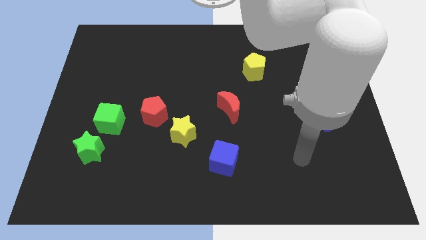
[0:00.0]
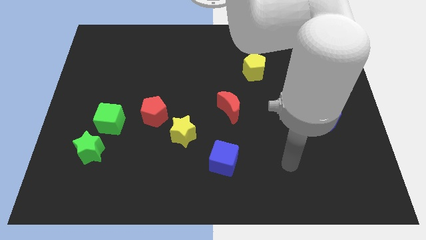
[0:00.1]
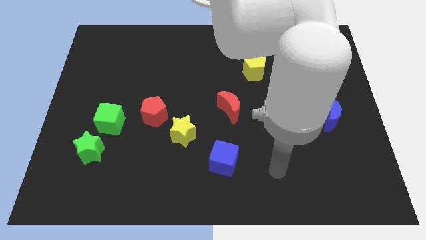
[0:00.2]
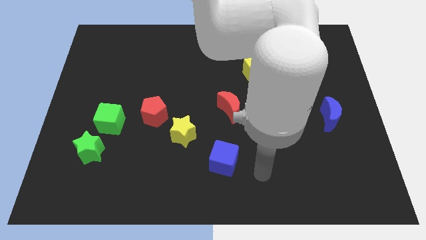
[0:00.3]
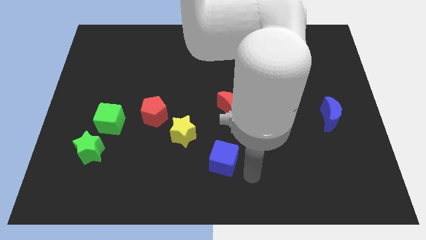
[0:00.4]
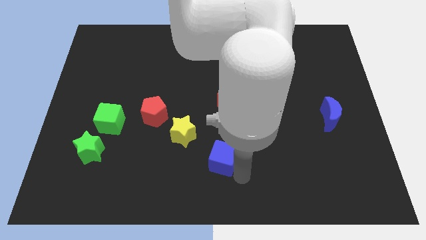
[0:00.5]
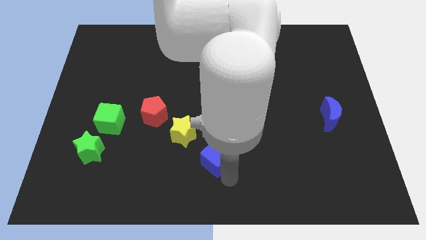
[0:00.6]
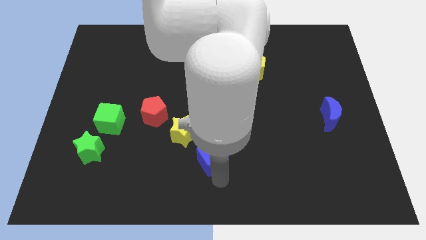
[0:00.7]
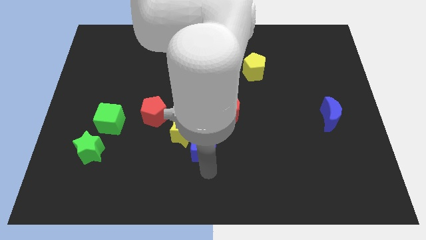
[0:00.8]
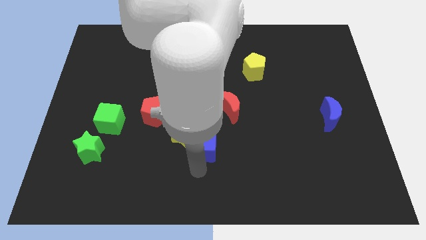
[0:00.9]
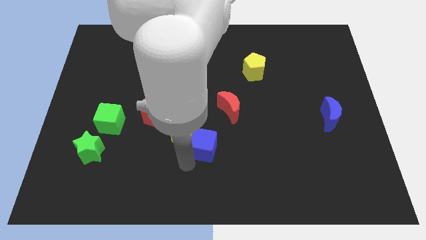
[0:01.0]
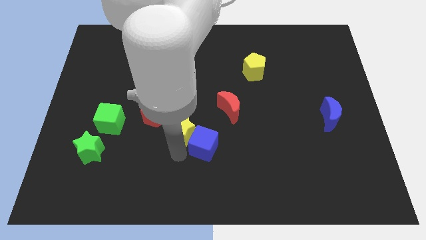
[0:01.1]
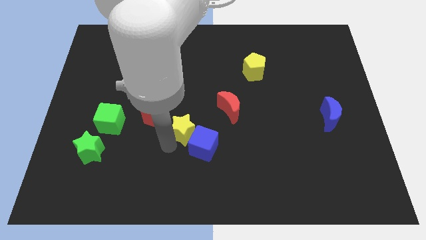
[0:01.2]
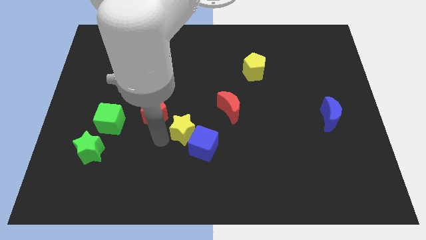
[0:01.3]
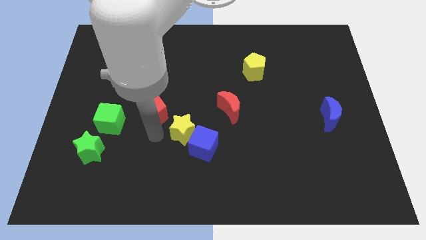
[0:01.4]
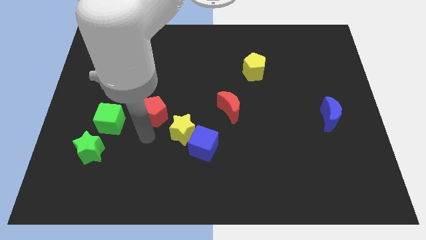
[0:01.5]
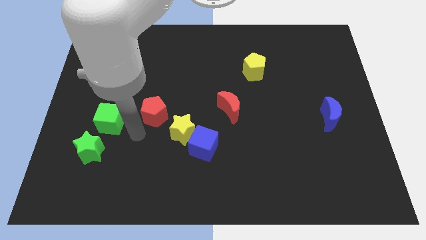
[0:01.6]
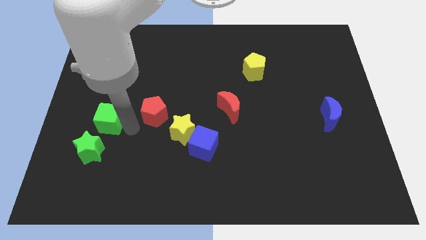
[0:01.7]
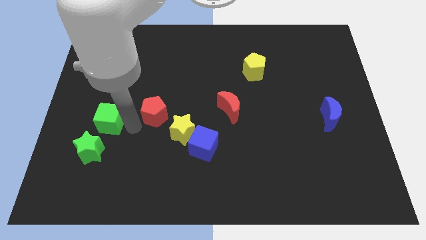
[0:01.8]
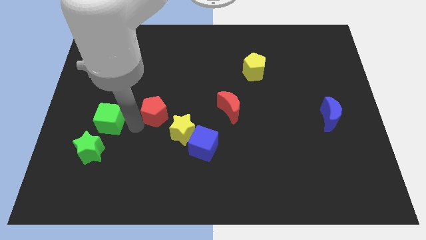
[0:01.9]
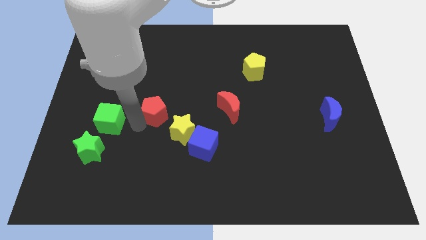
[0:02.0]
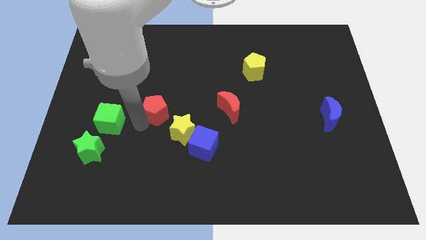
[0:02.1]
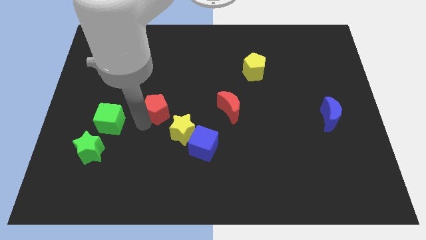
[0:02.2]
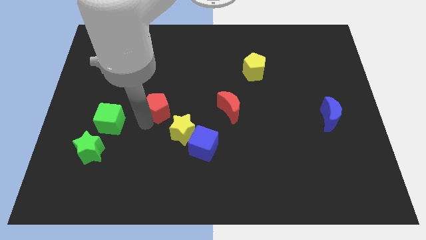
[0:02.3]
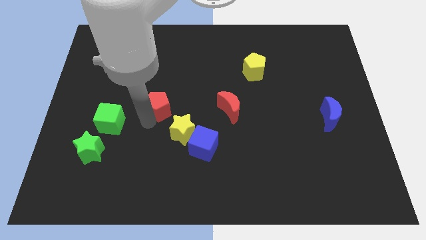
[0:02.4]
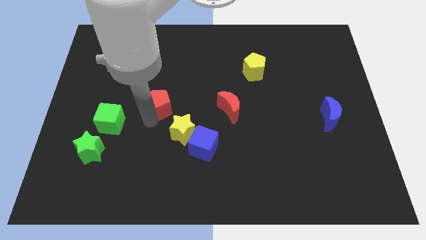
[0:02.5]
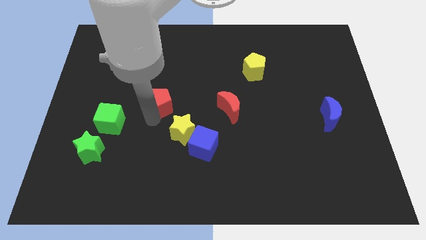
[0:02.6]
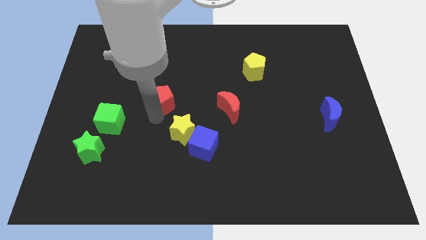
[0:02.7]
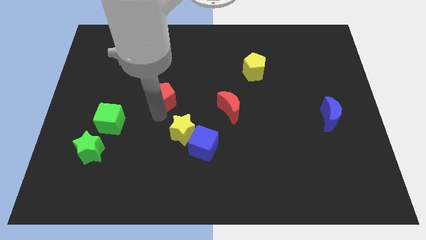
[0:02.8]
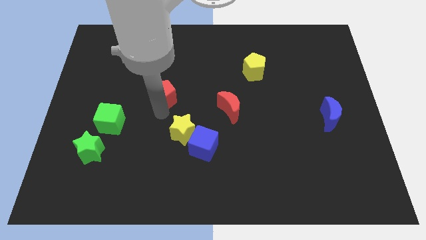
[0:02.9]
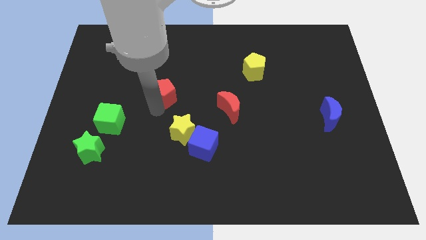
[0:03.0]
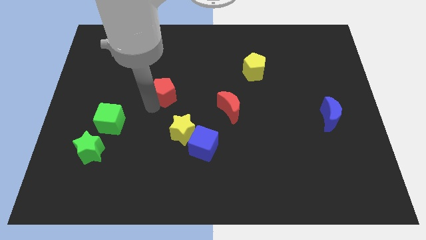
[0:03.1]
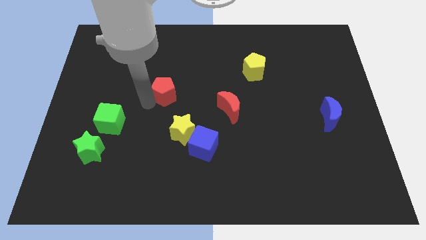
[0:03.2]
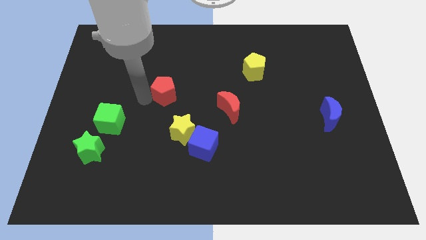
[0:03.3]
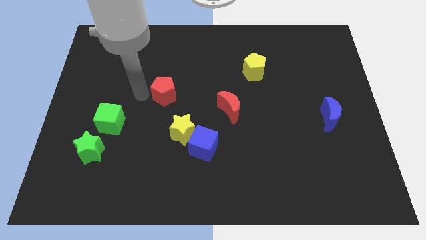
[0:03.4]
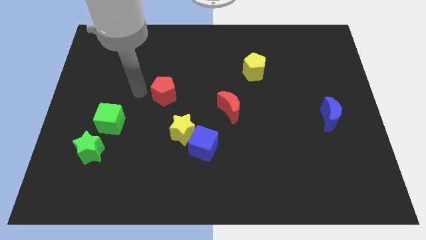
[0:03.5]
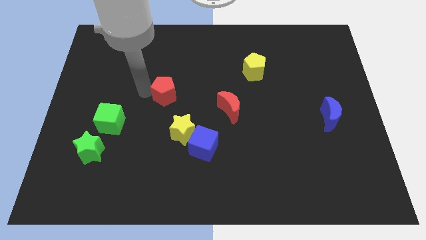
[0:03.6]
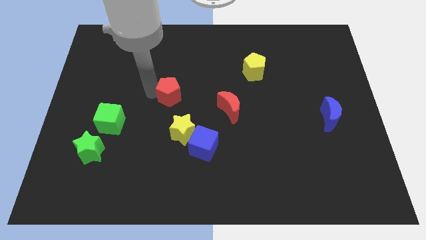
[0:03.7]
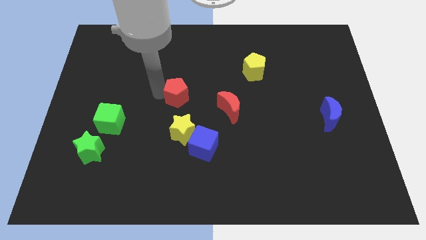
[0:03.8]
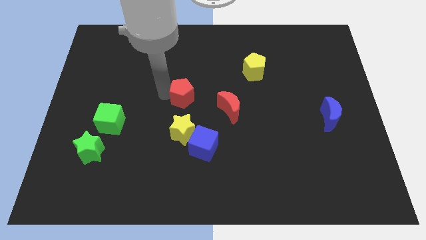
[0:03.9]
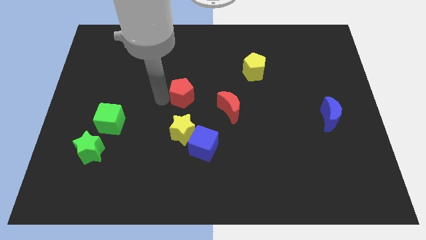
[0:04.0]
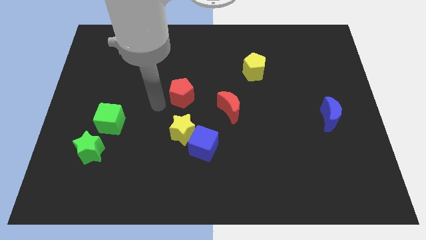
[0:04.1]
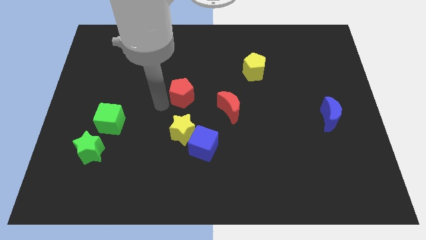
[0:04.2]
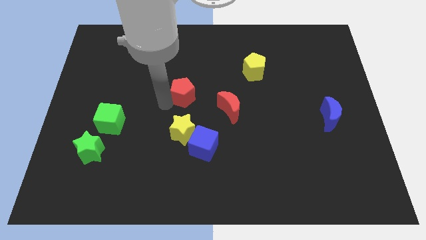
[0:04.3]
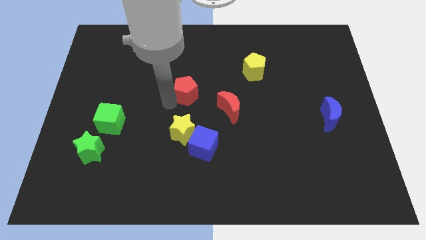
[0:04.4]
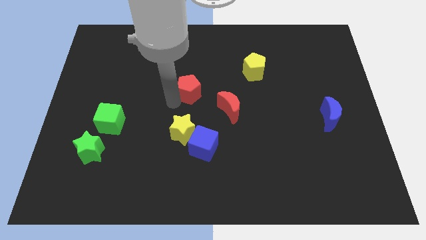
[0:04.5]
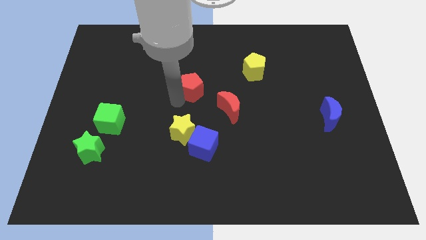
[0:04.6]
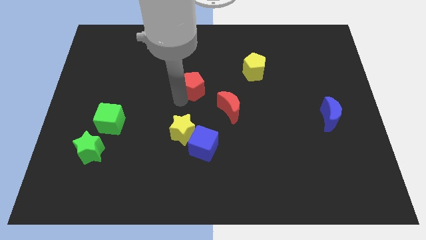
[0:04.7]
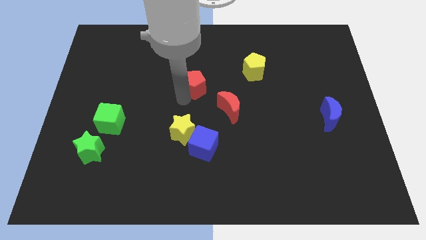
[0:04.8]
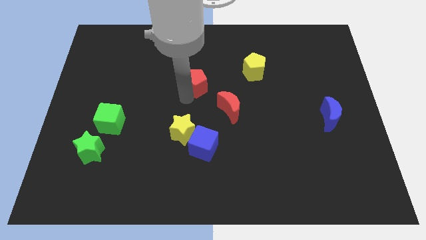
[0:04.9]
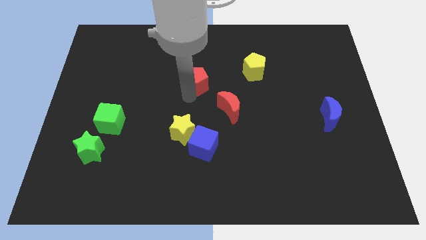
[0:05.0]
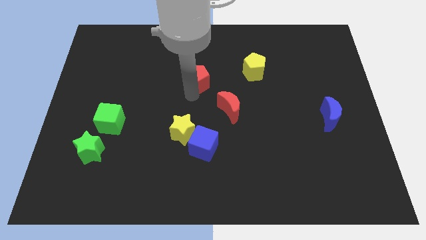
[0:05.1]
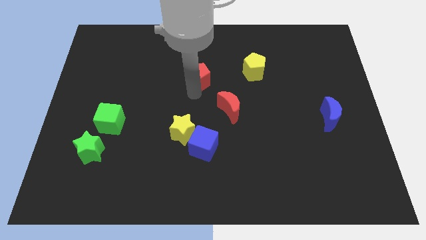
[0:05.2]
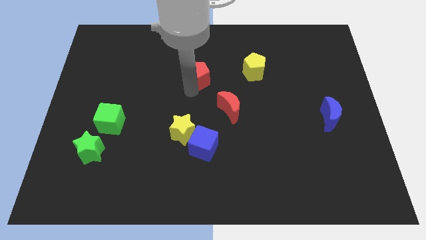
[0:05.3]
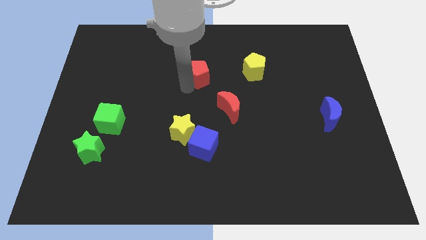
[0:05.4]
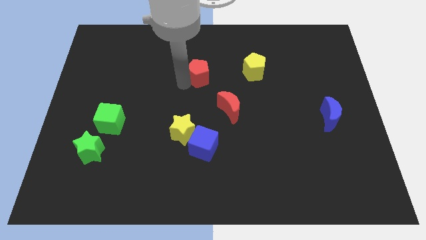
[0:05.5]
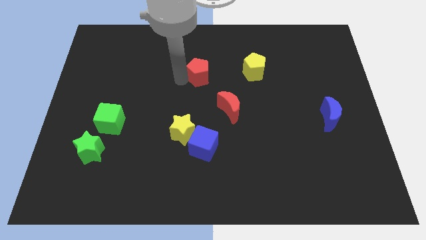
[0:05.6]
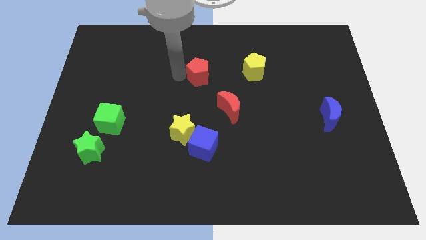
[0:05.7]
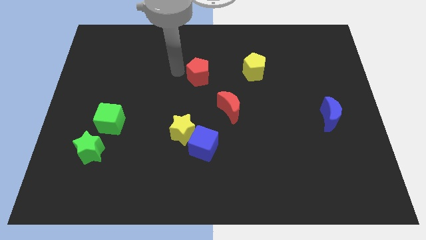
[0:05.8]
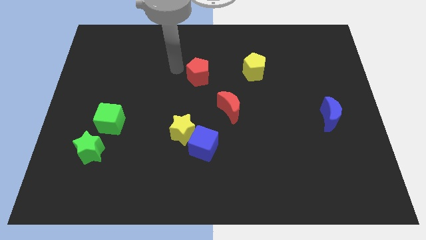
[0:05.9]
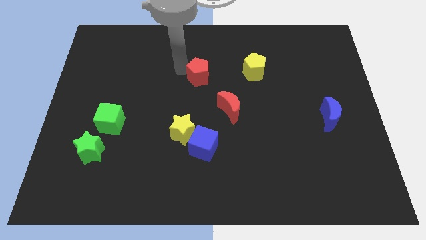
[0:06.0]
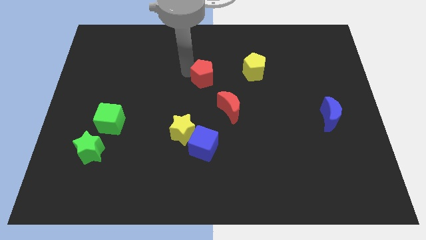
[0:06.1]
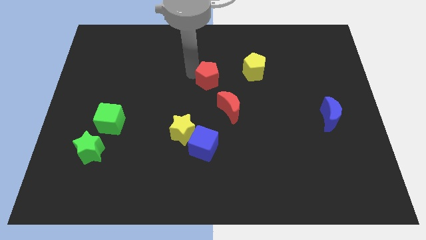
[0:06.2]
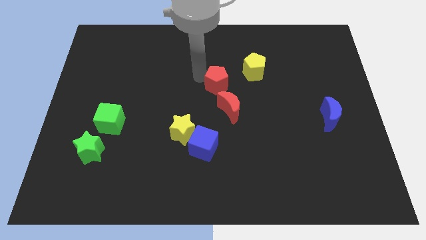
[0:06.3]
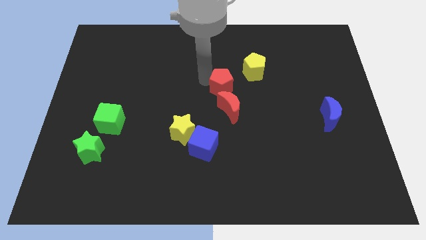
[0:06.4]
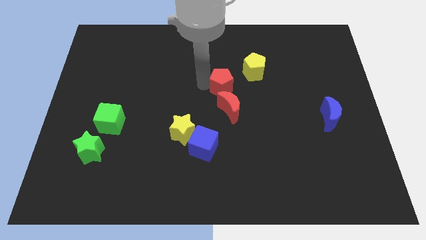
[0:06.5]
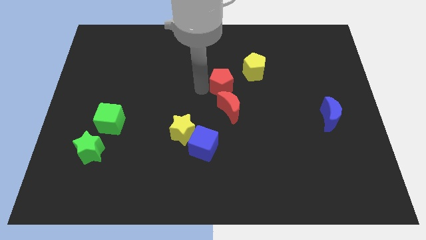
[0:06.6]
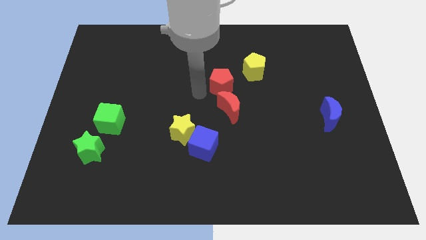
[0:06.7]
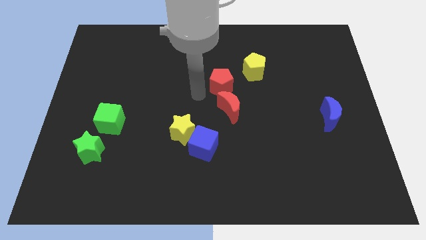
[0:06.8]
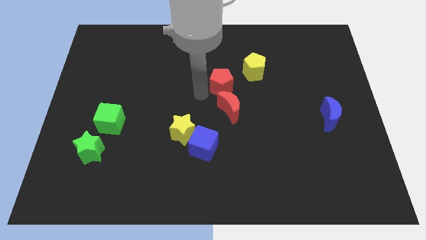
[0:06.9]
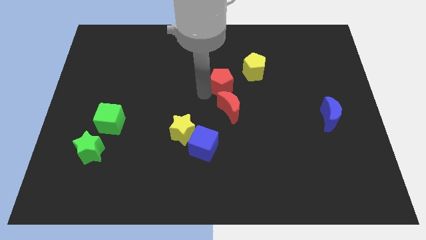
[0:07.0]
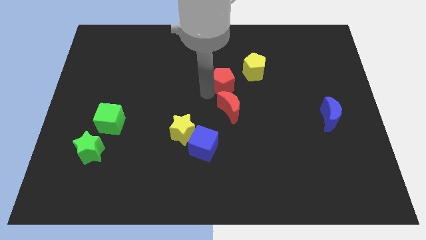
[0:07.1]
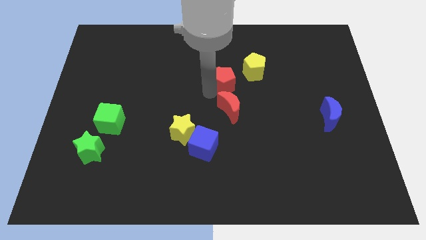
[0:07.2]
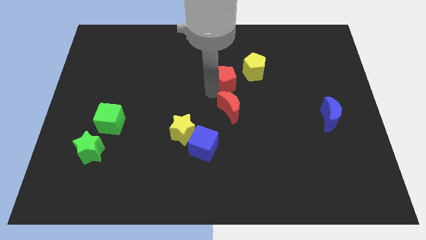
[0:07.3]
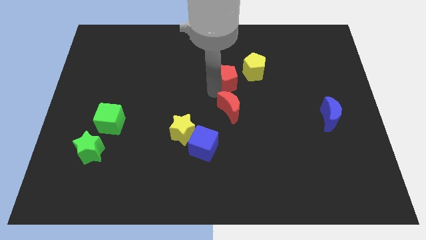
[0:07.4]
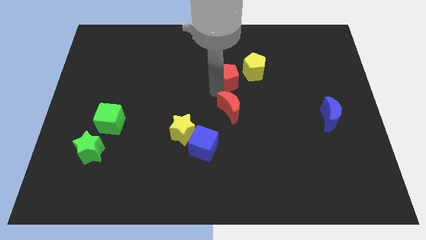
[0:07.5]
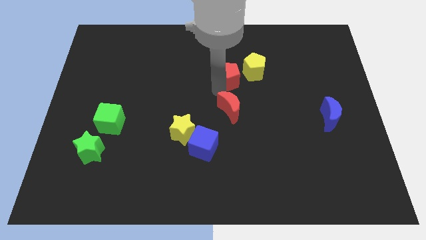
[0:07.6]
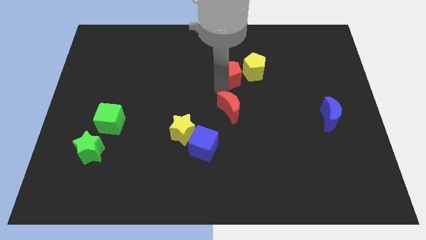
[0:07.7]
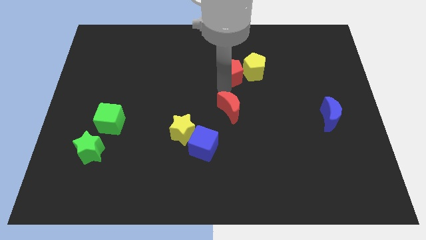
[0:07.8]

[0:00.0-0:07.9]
move the red pentagon next to the yellow pentagon
